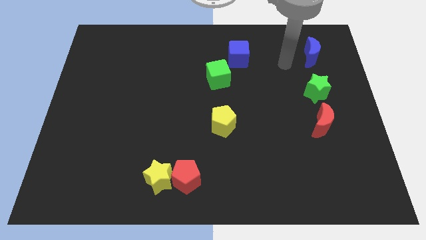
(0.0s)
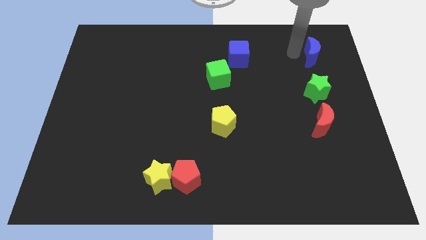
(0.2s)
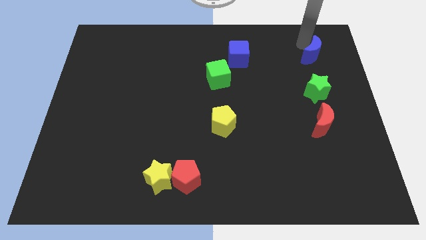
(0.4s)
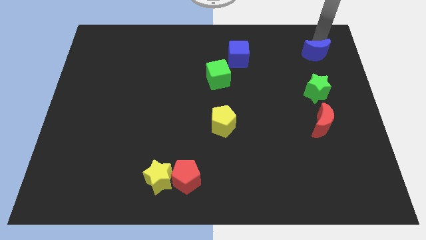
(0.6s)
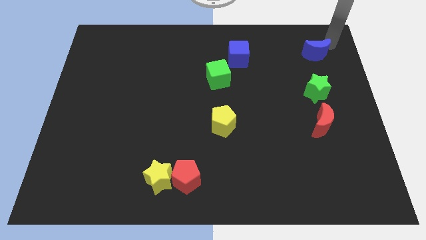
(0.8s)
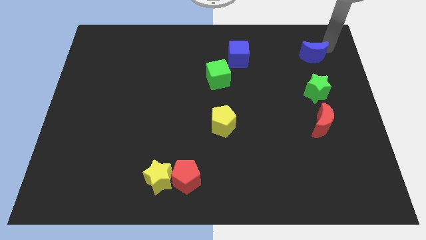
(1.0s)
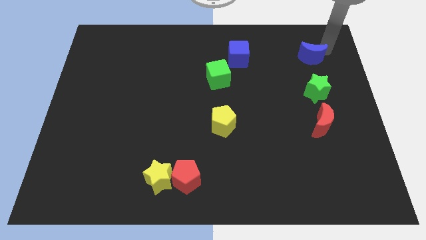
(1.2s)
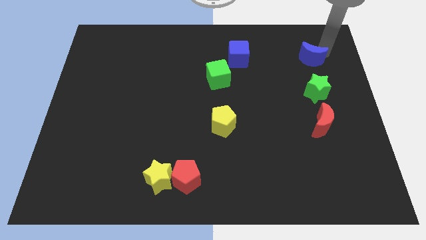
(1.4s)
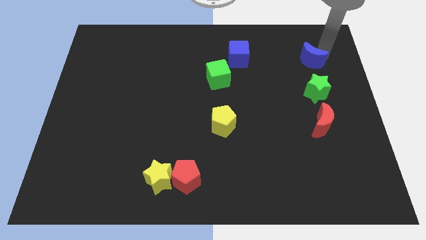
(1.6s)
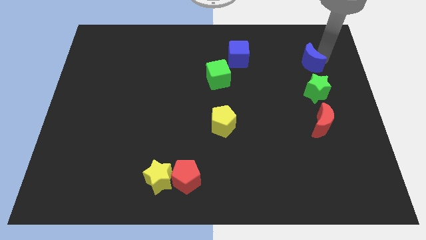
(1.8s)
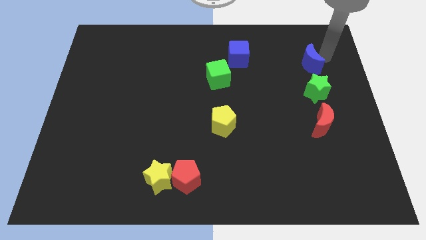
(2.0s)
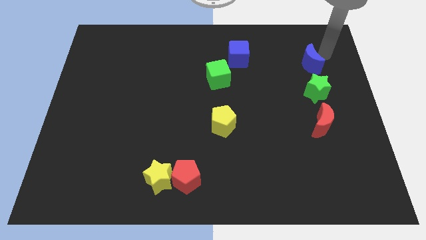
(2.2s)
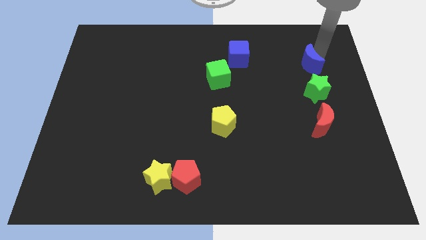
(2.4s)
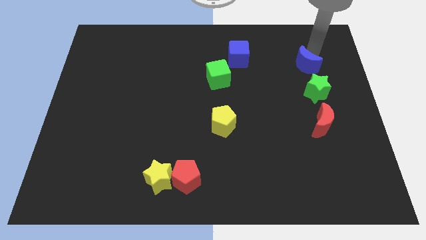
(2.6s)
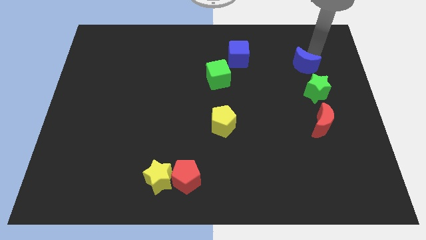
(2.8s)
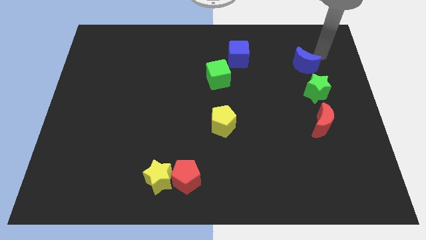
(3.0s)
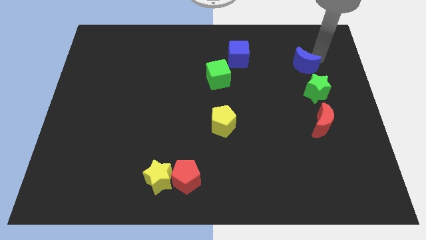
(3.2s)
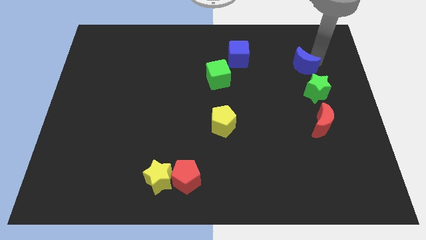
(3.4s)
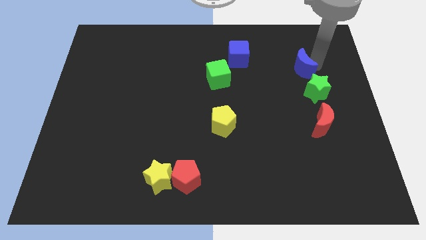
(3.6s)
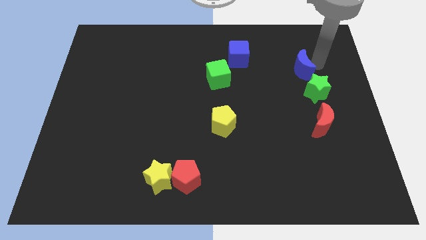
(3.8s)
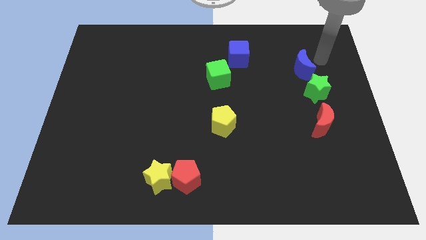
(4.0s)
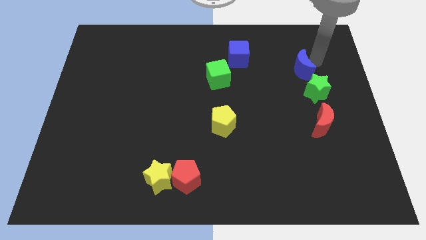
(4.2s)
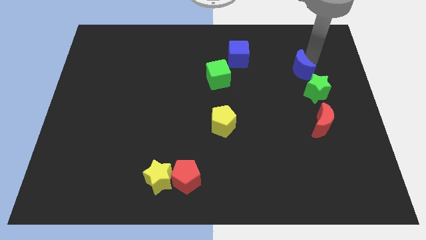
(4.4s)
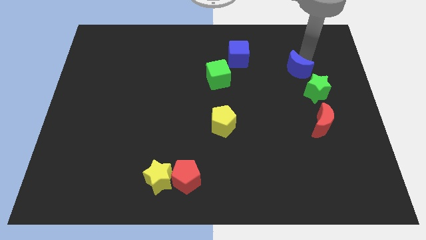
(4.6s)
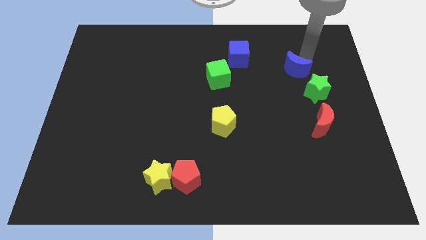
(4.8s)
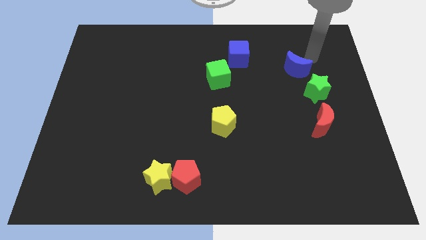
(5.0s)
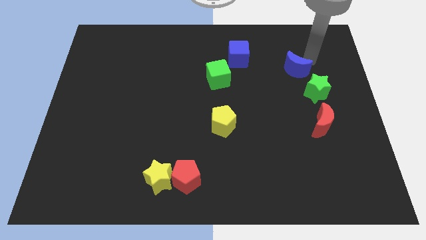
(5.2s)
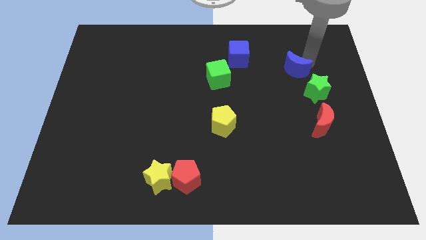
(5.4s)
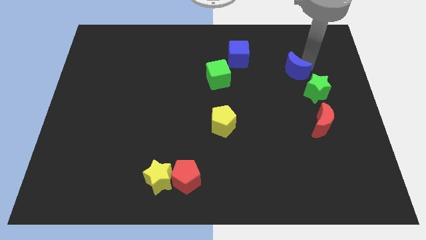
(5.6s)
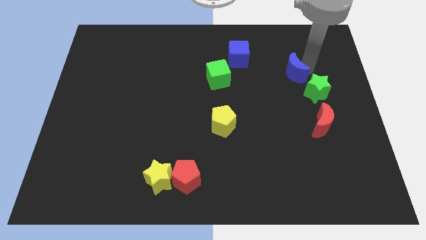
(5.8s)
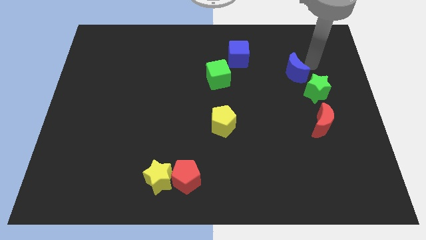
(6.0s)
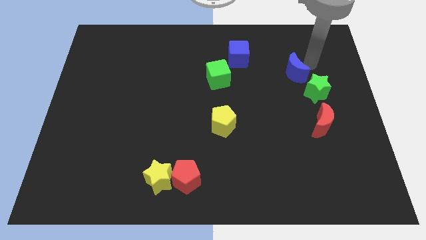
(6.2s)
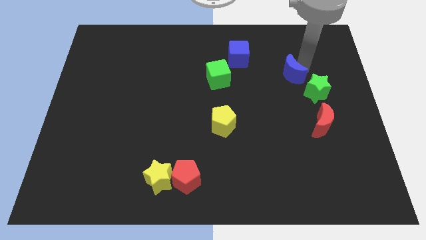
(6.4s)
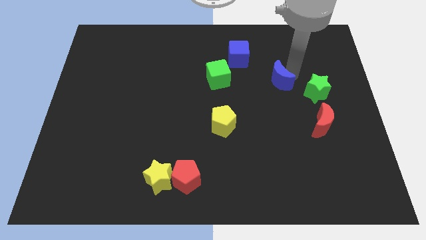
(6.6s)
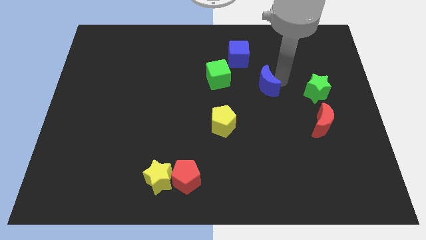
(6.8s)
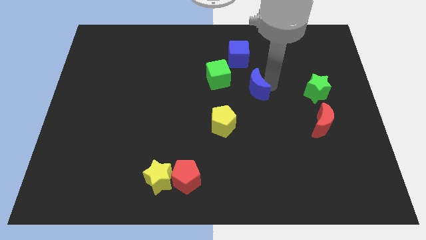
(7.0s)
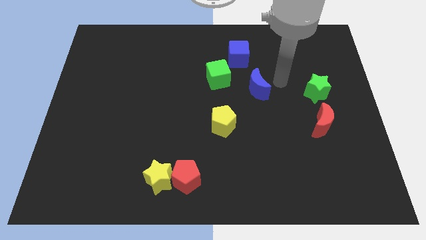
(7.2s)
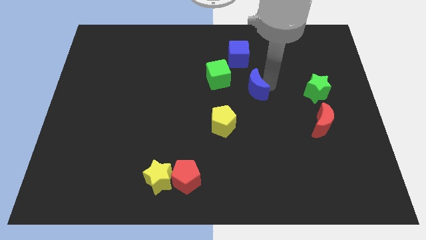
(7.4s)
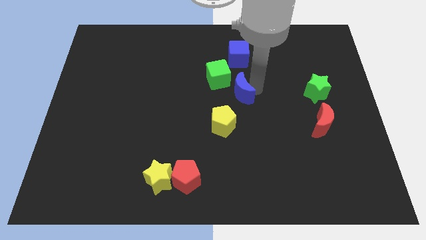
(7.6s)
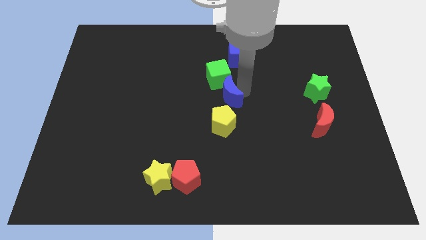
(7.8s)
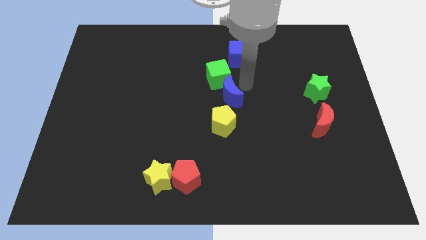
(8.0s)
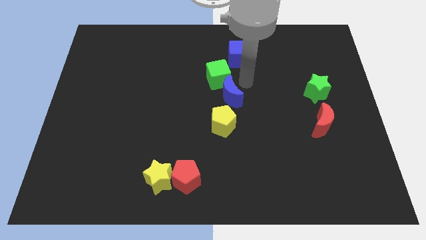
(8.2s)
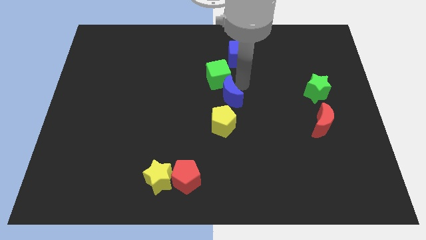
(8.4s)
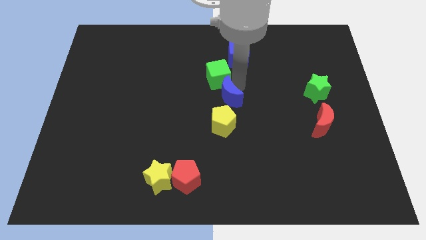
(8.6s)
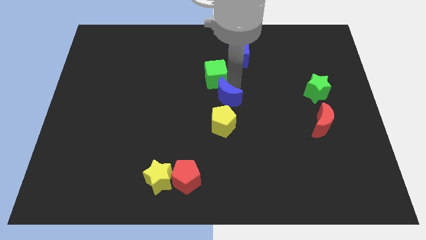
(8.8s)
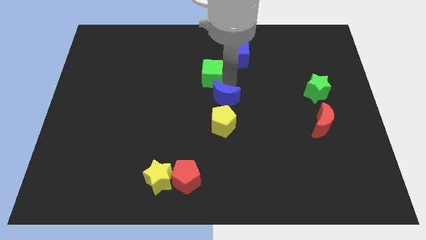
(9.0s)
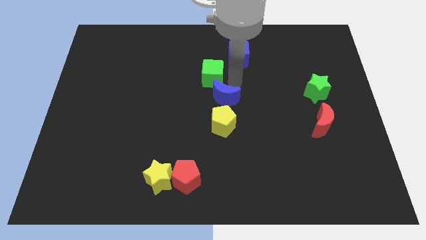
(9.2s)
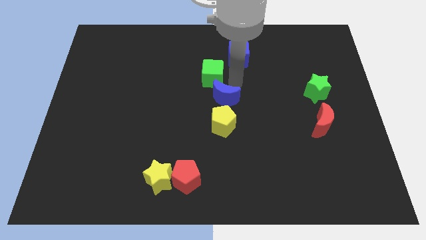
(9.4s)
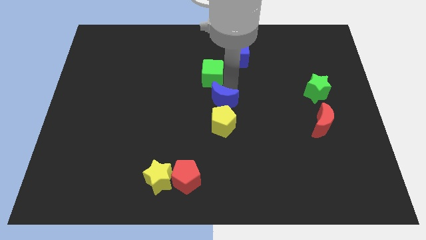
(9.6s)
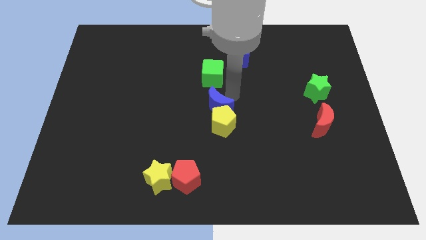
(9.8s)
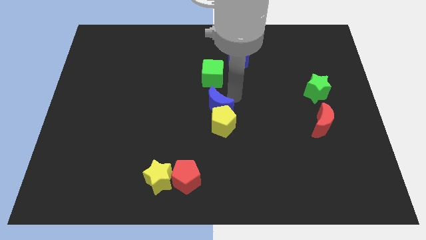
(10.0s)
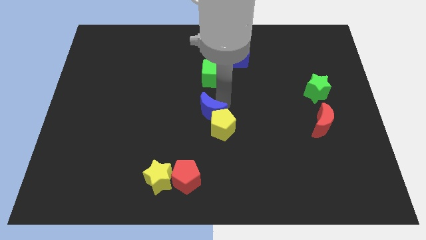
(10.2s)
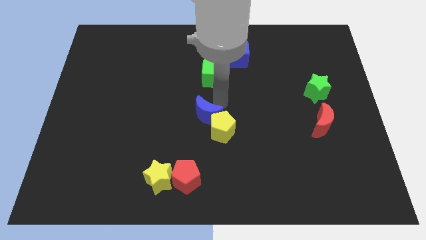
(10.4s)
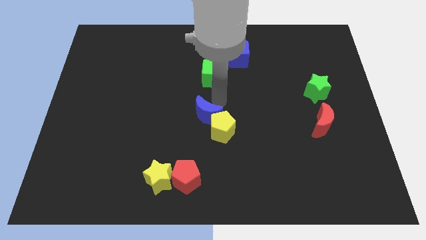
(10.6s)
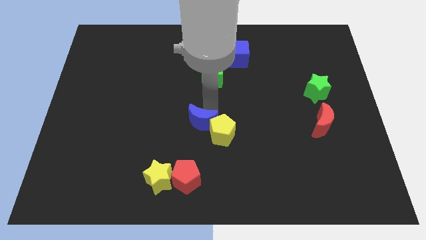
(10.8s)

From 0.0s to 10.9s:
move the blue moon to the top of the red pentagon

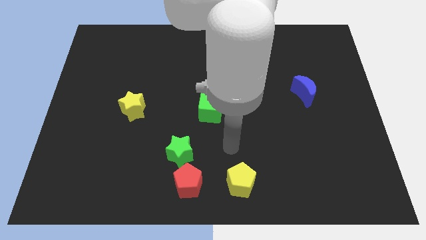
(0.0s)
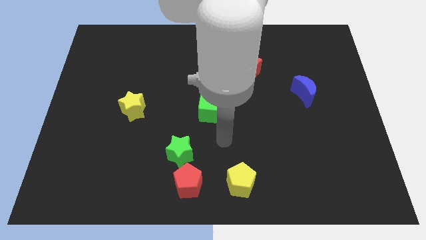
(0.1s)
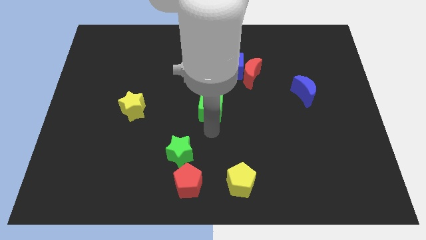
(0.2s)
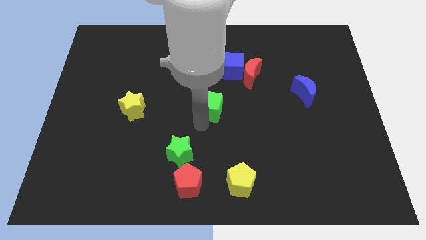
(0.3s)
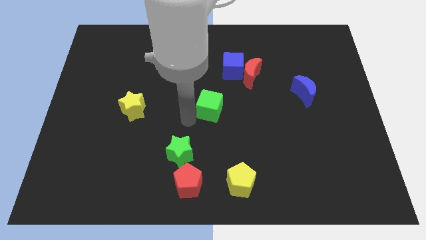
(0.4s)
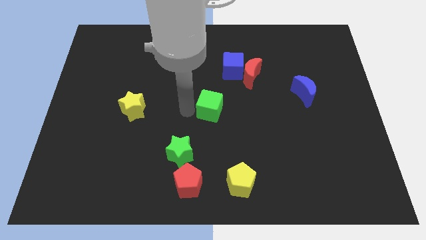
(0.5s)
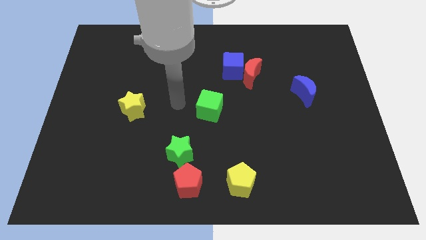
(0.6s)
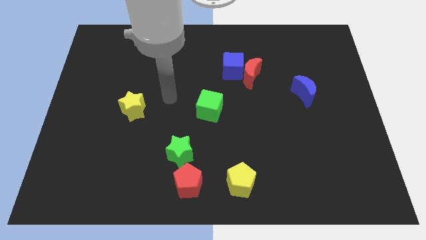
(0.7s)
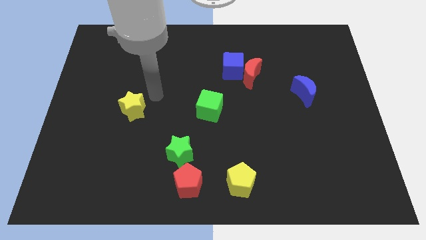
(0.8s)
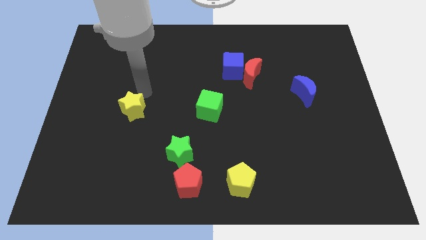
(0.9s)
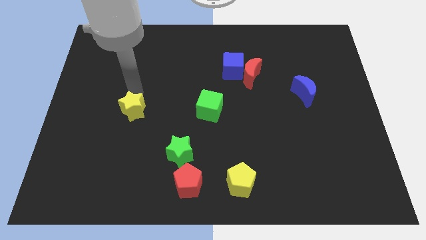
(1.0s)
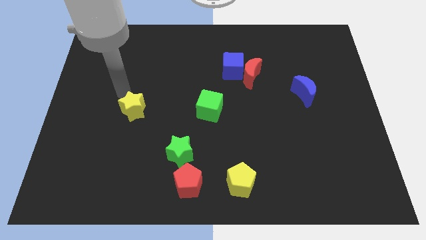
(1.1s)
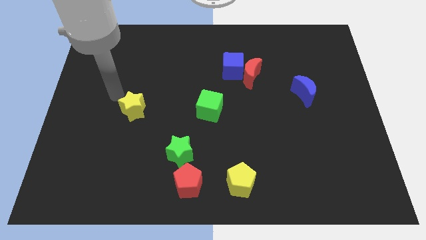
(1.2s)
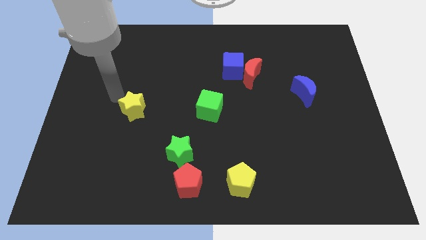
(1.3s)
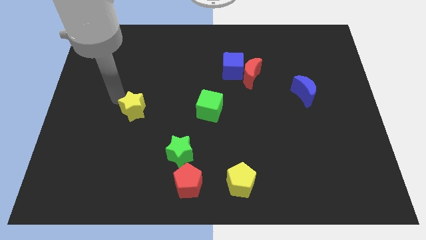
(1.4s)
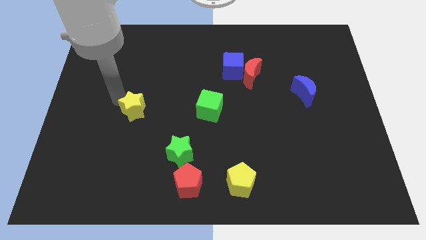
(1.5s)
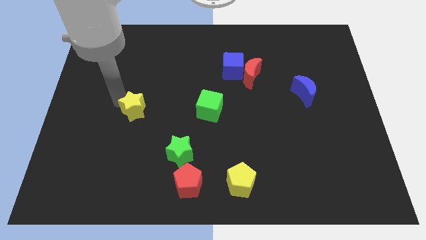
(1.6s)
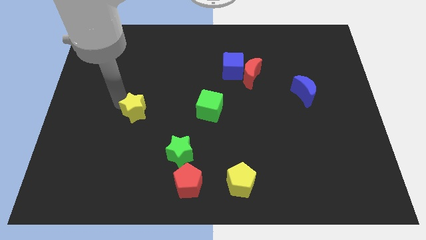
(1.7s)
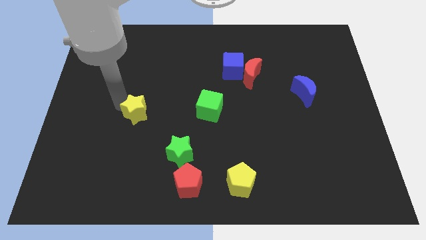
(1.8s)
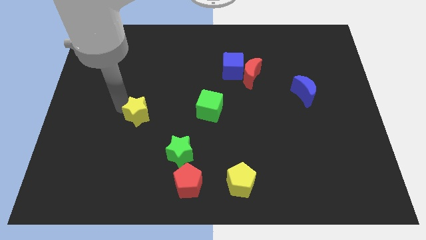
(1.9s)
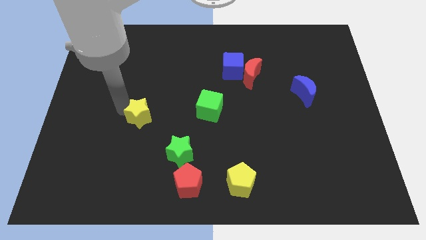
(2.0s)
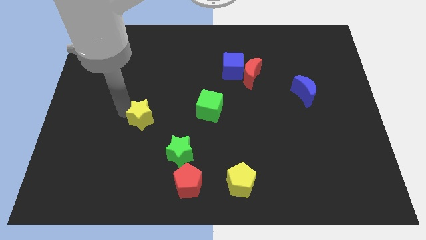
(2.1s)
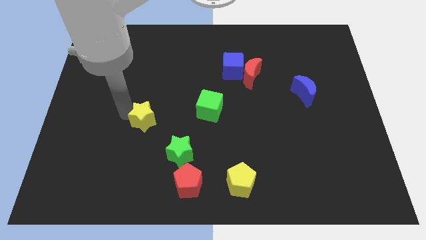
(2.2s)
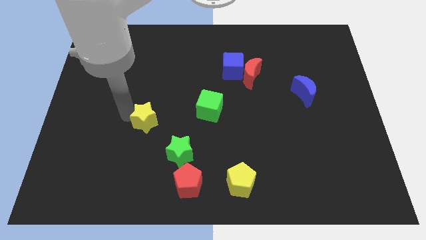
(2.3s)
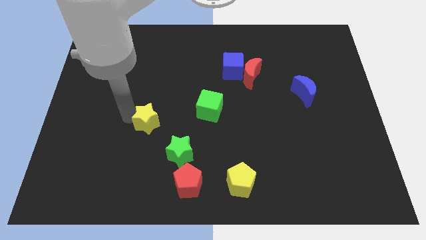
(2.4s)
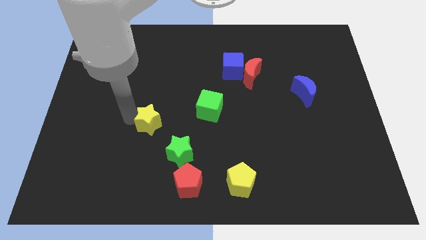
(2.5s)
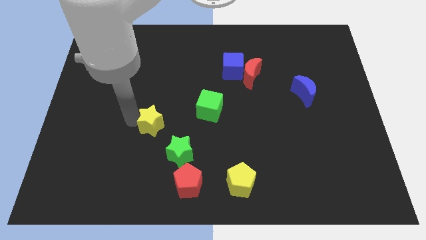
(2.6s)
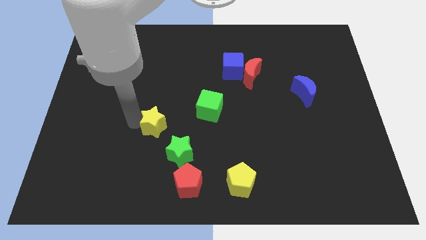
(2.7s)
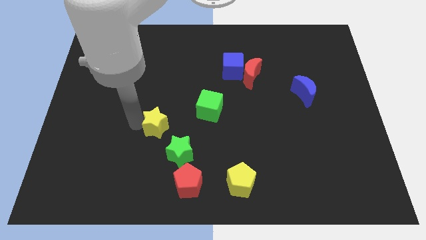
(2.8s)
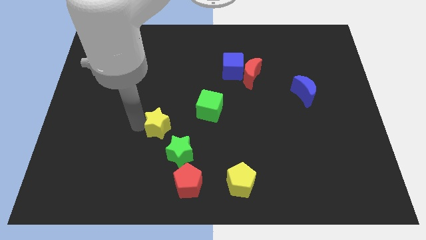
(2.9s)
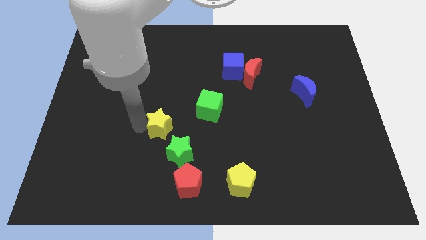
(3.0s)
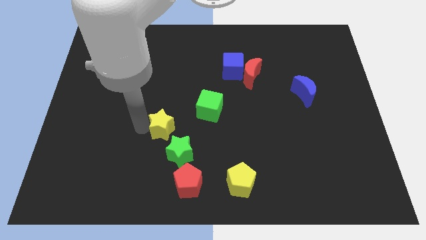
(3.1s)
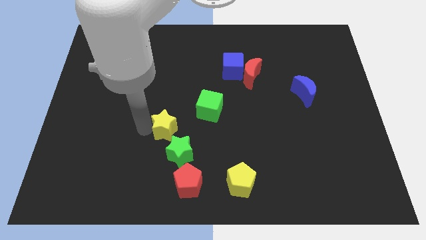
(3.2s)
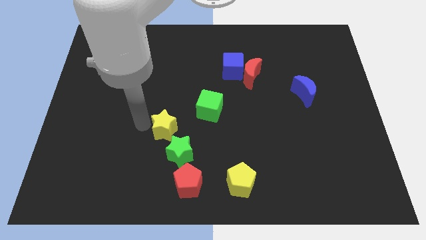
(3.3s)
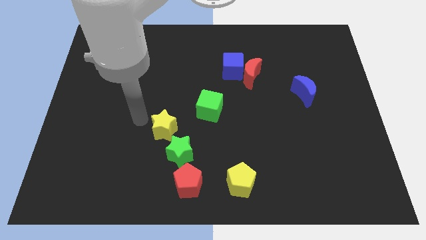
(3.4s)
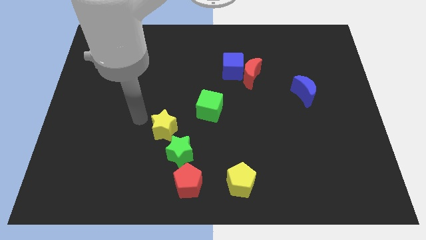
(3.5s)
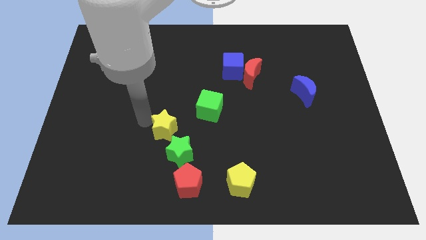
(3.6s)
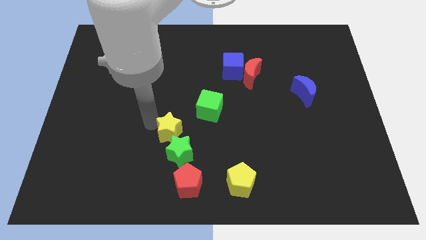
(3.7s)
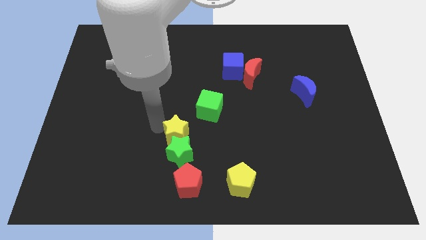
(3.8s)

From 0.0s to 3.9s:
push the yellow star to the top of the red pentagon
